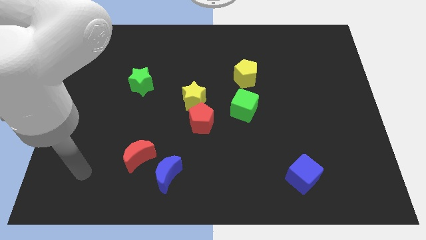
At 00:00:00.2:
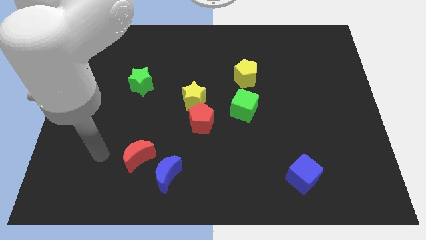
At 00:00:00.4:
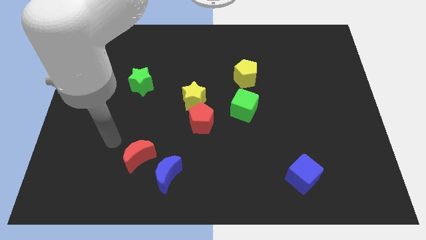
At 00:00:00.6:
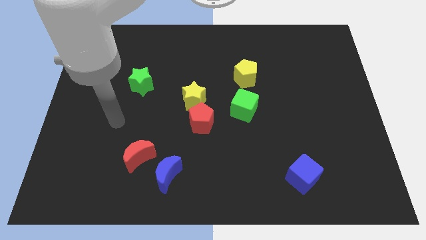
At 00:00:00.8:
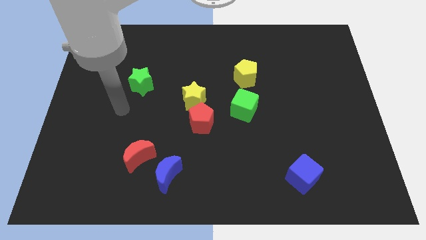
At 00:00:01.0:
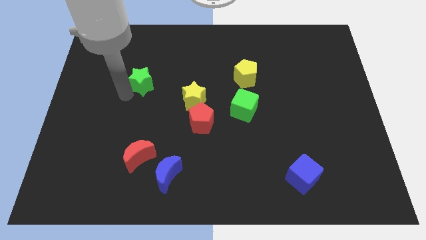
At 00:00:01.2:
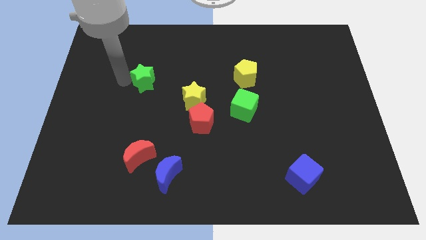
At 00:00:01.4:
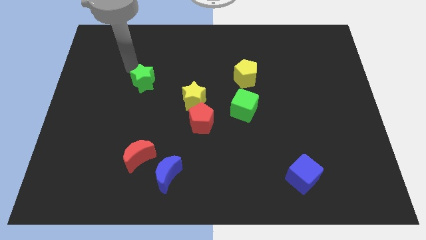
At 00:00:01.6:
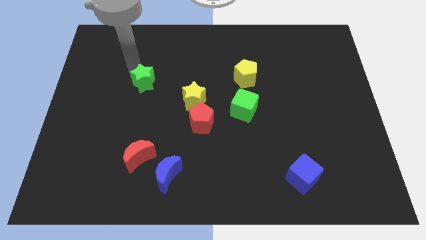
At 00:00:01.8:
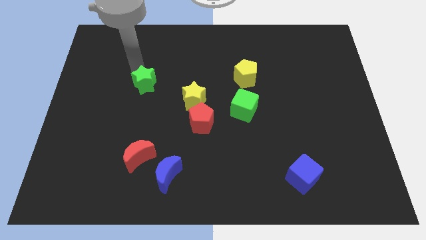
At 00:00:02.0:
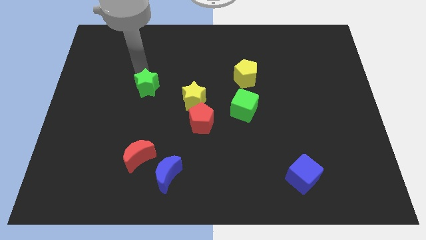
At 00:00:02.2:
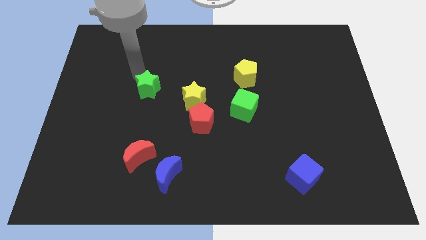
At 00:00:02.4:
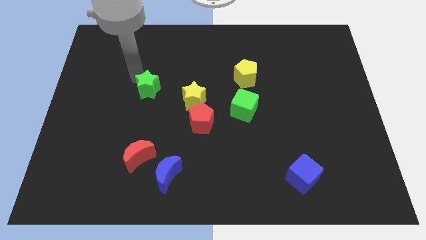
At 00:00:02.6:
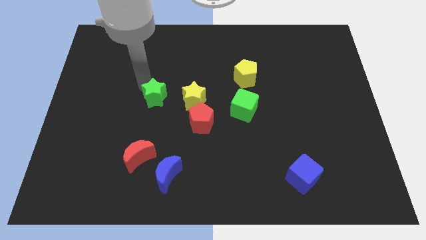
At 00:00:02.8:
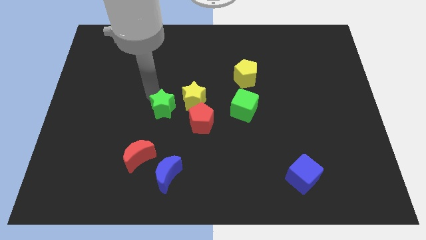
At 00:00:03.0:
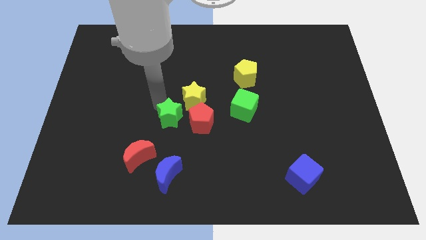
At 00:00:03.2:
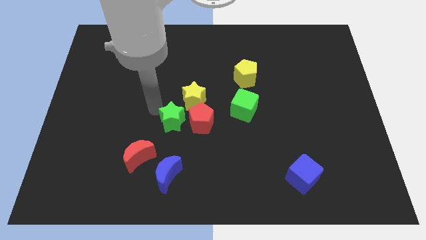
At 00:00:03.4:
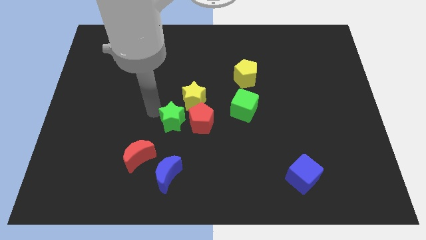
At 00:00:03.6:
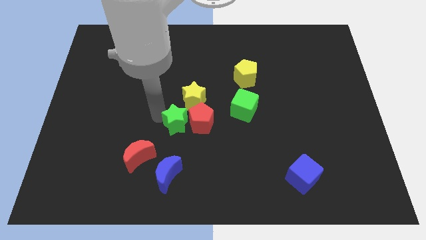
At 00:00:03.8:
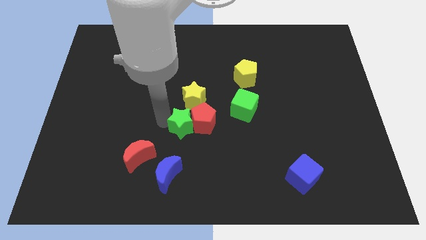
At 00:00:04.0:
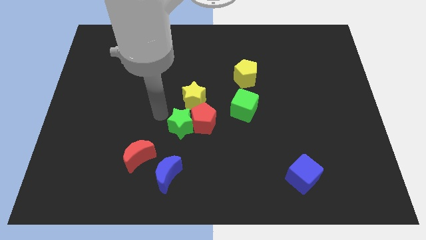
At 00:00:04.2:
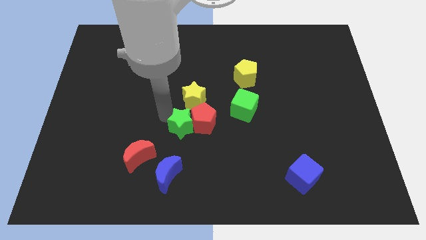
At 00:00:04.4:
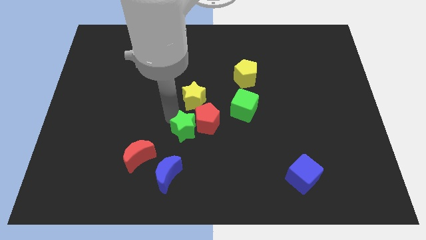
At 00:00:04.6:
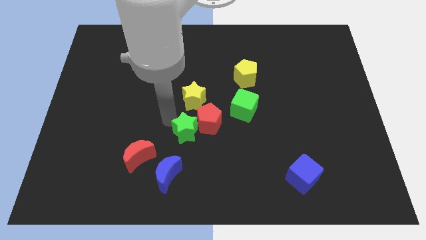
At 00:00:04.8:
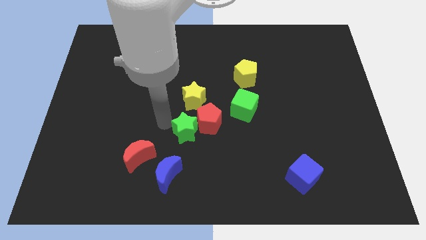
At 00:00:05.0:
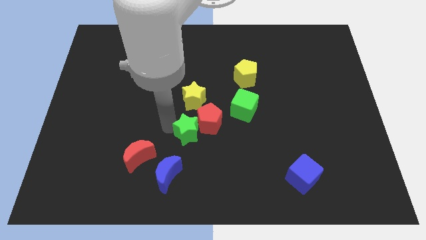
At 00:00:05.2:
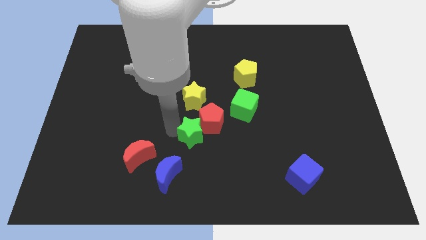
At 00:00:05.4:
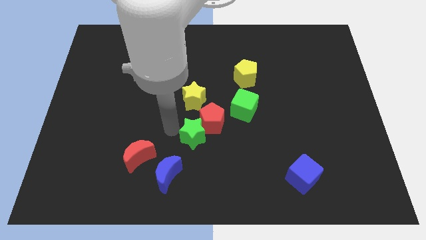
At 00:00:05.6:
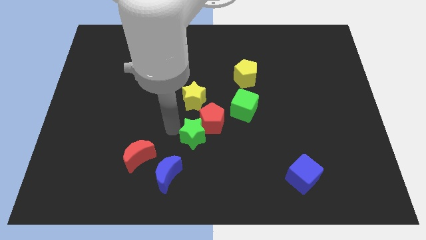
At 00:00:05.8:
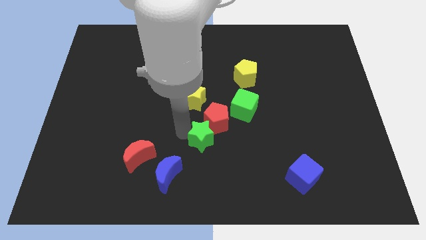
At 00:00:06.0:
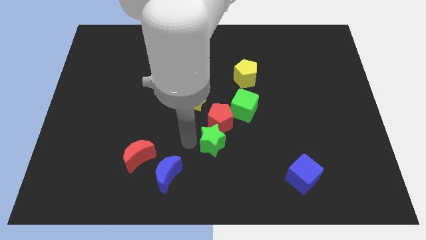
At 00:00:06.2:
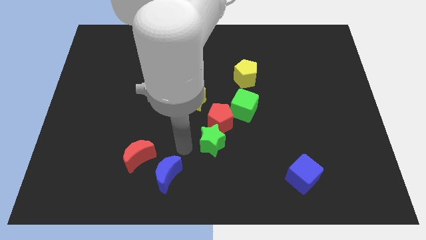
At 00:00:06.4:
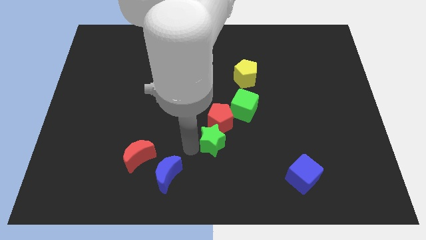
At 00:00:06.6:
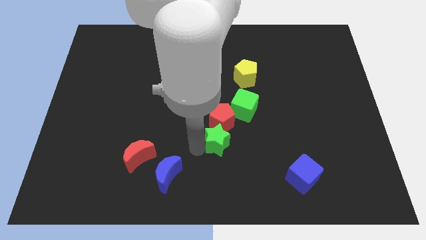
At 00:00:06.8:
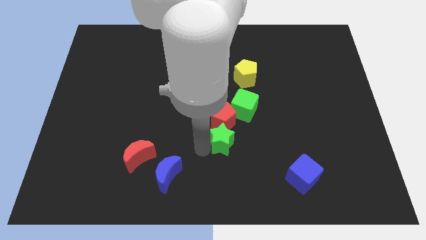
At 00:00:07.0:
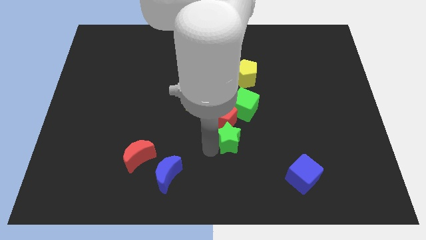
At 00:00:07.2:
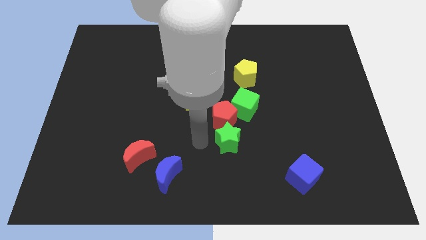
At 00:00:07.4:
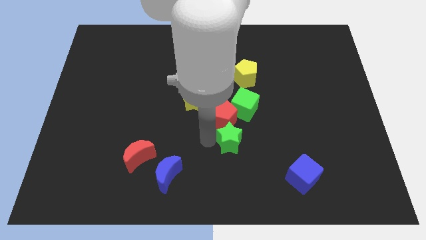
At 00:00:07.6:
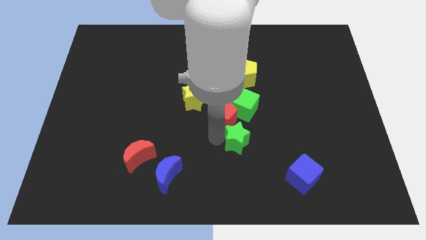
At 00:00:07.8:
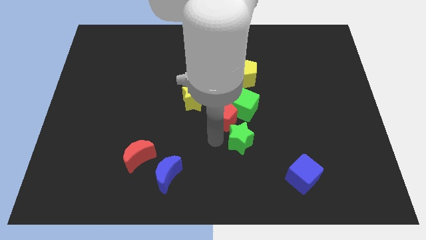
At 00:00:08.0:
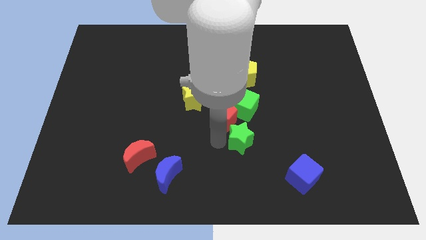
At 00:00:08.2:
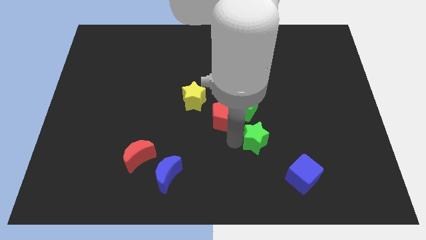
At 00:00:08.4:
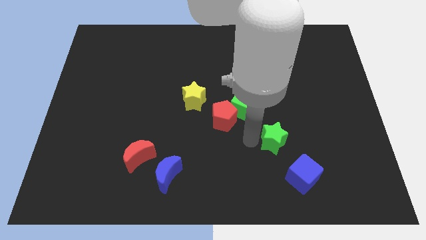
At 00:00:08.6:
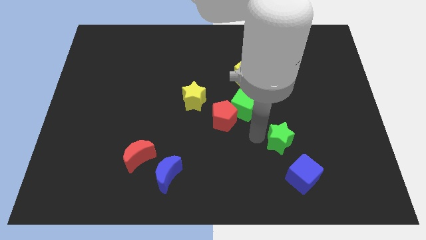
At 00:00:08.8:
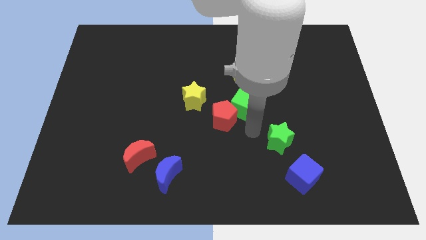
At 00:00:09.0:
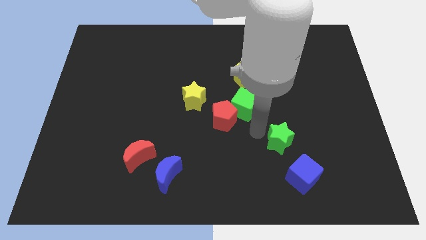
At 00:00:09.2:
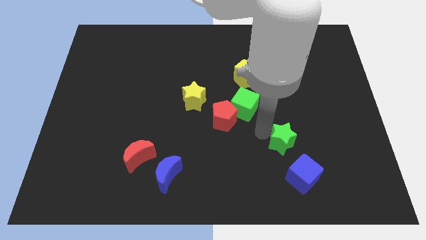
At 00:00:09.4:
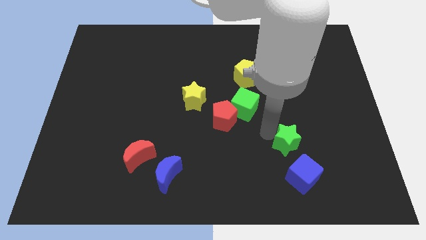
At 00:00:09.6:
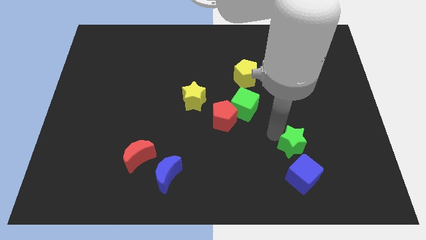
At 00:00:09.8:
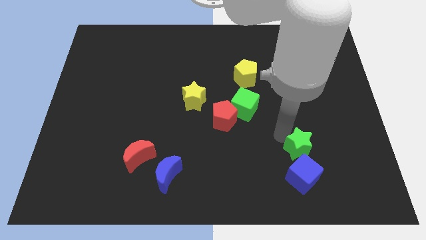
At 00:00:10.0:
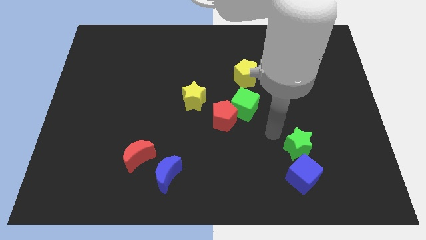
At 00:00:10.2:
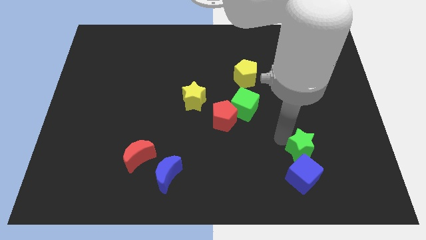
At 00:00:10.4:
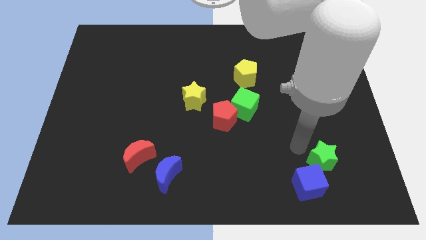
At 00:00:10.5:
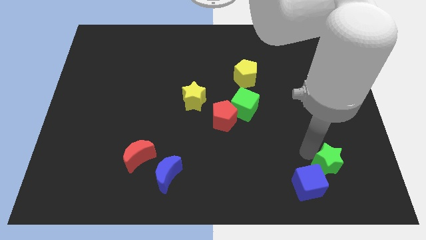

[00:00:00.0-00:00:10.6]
slide the green star right of the blue cube

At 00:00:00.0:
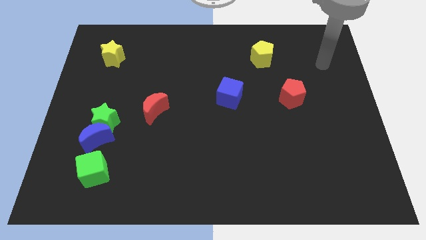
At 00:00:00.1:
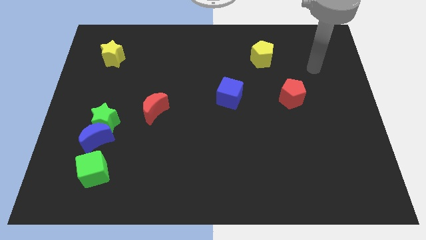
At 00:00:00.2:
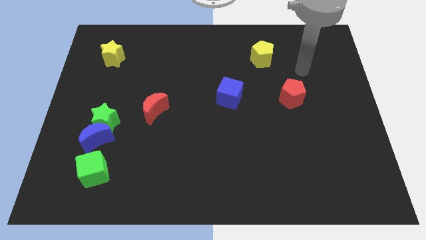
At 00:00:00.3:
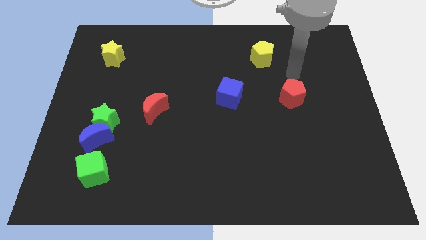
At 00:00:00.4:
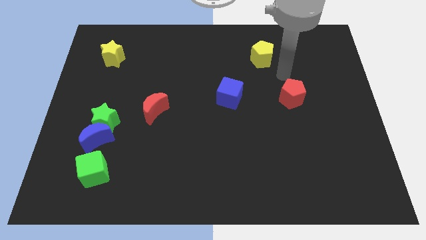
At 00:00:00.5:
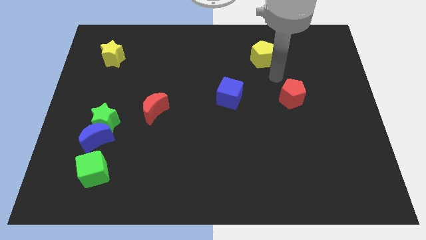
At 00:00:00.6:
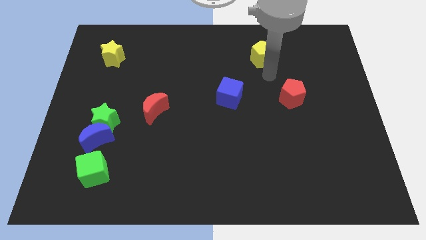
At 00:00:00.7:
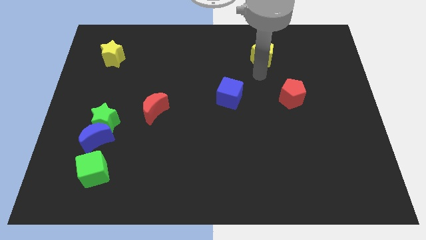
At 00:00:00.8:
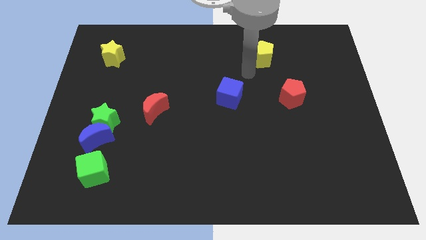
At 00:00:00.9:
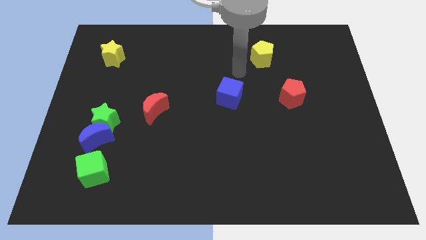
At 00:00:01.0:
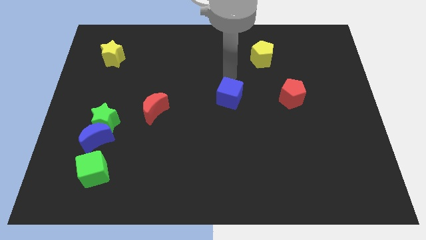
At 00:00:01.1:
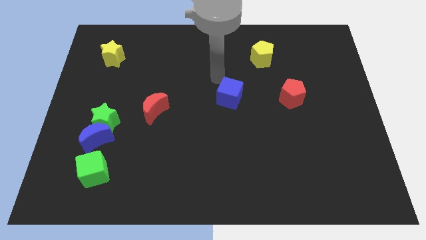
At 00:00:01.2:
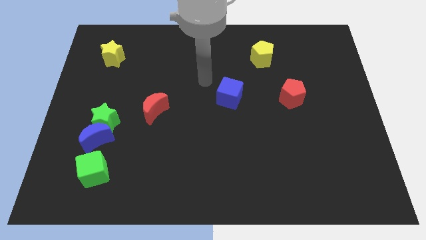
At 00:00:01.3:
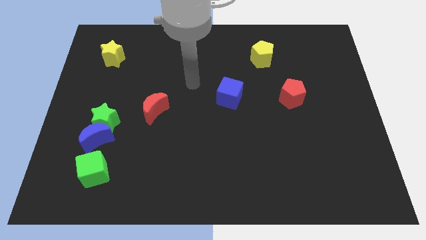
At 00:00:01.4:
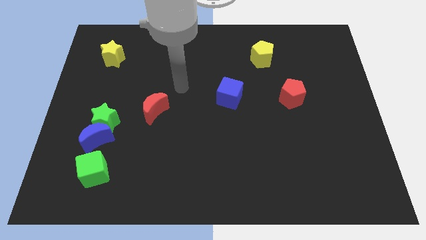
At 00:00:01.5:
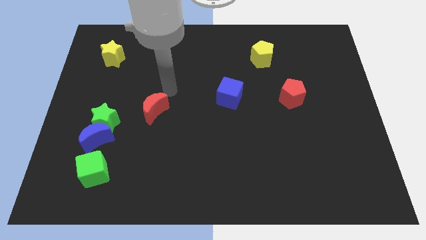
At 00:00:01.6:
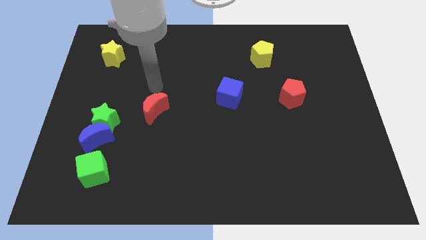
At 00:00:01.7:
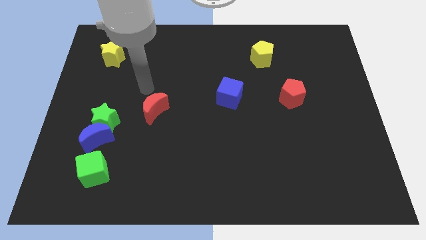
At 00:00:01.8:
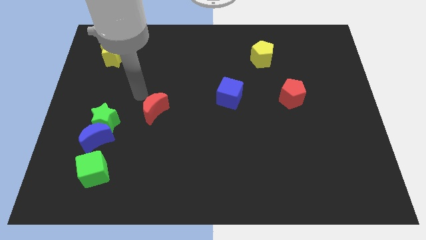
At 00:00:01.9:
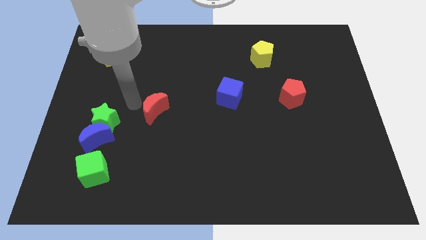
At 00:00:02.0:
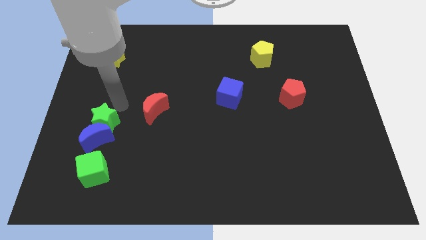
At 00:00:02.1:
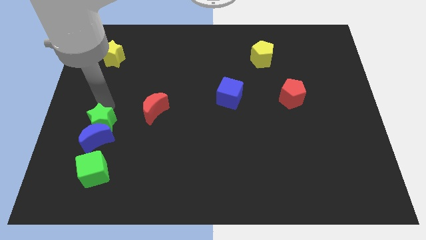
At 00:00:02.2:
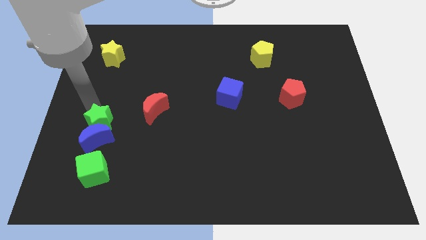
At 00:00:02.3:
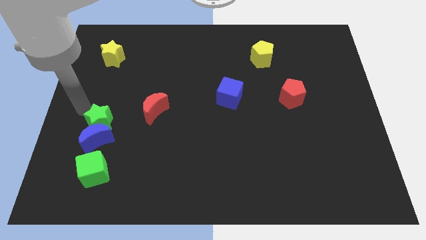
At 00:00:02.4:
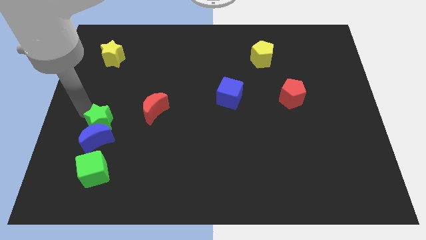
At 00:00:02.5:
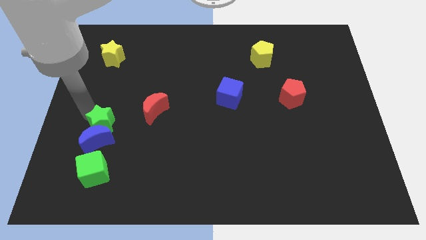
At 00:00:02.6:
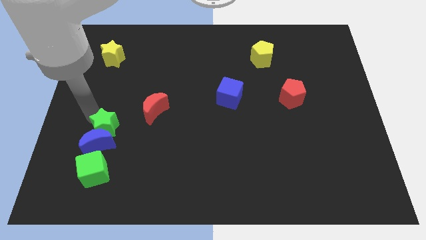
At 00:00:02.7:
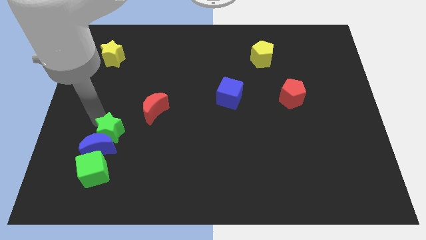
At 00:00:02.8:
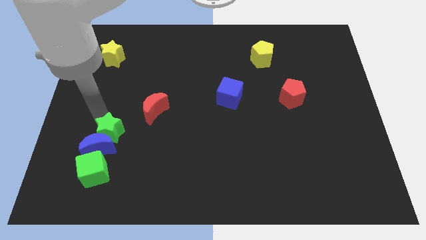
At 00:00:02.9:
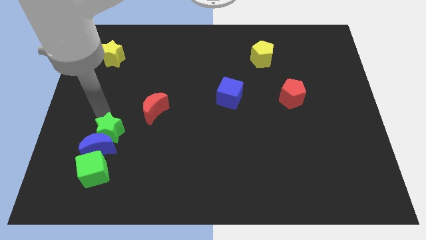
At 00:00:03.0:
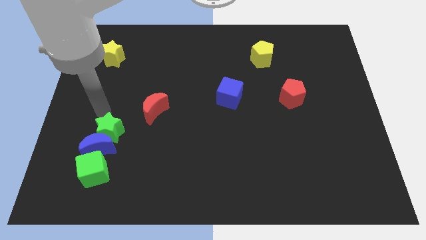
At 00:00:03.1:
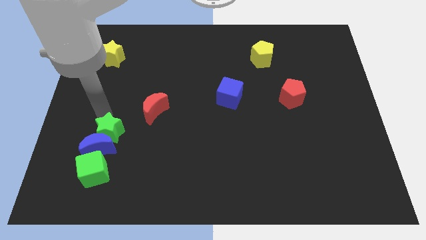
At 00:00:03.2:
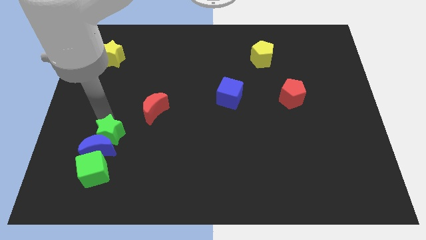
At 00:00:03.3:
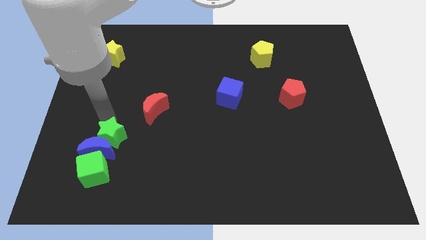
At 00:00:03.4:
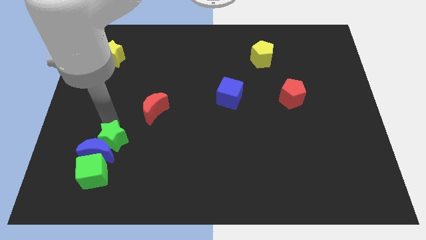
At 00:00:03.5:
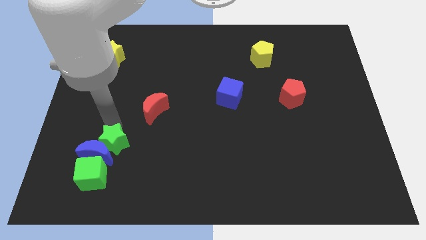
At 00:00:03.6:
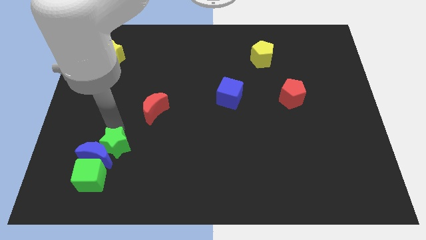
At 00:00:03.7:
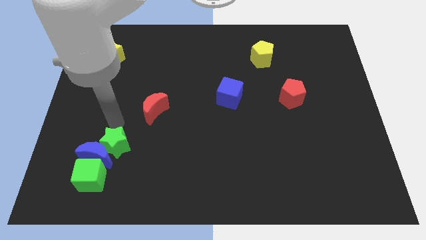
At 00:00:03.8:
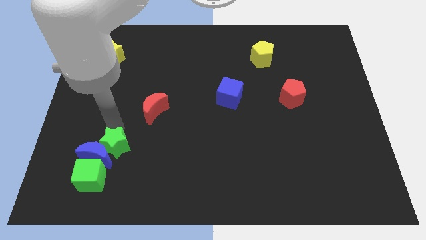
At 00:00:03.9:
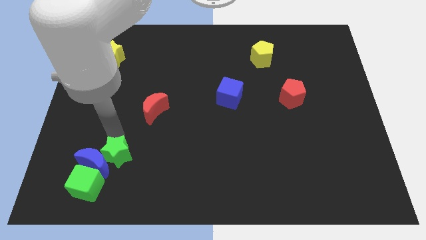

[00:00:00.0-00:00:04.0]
push the green star diagonally down and to the right of the blue moon
